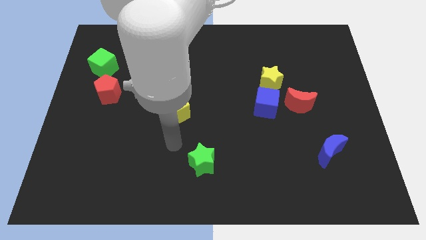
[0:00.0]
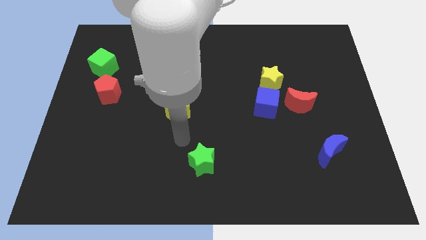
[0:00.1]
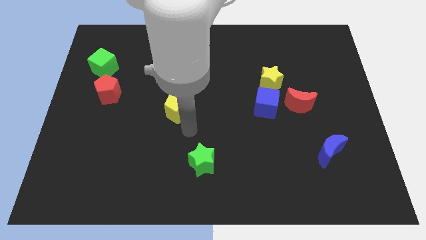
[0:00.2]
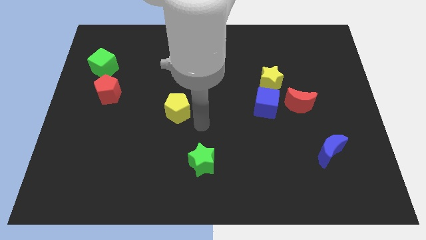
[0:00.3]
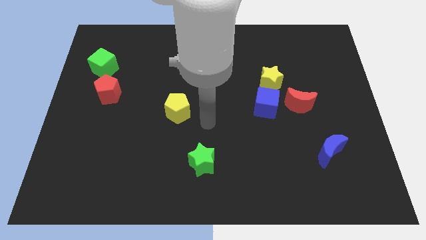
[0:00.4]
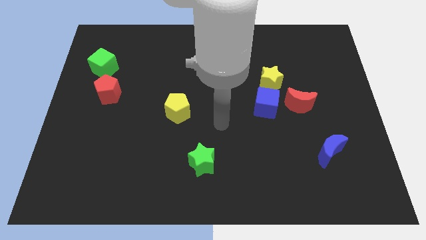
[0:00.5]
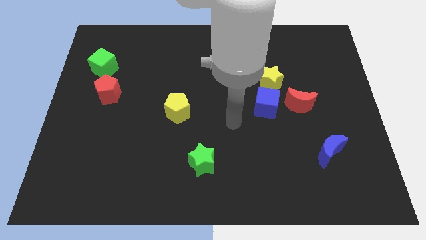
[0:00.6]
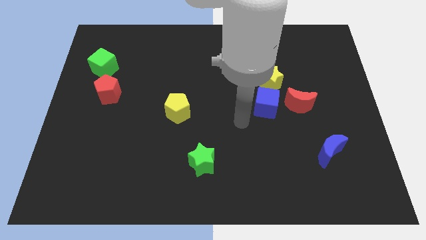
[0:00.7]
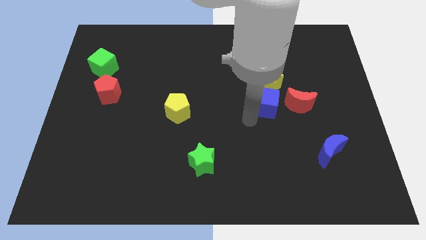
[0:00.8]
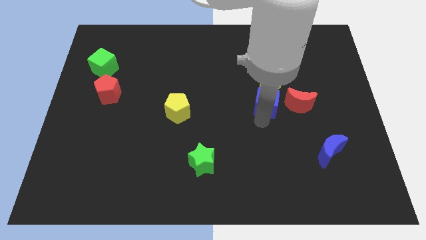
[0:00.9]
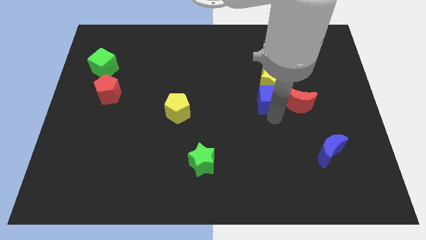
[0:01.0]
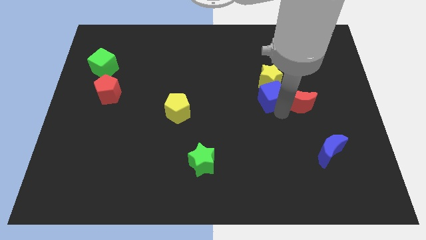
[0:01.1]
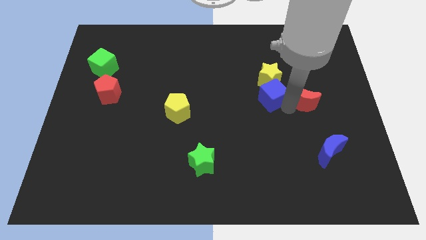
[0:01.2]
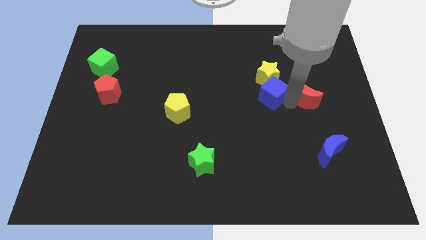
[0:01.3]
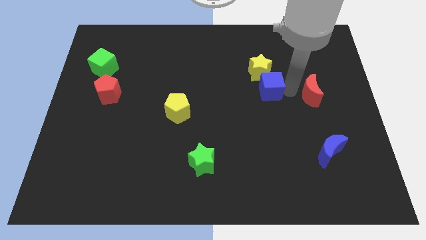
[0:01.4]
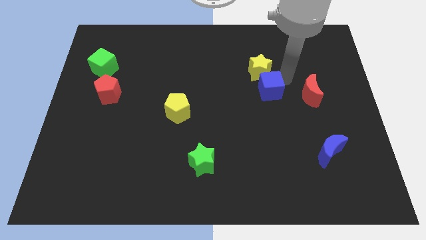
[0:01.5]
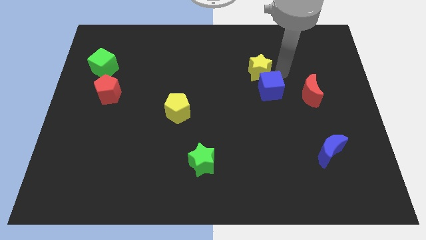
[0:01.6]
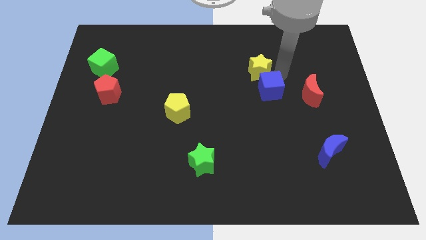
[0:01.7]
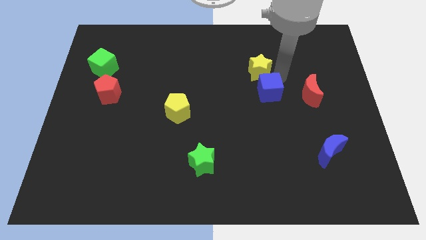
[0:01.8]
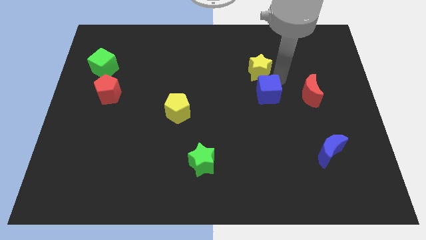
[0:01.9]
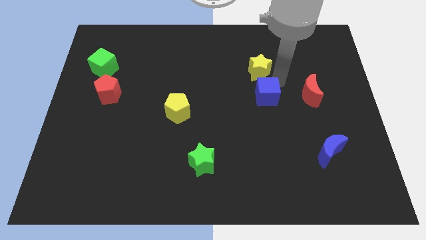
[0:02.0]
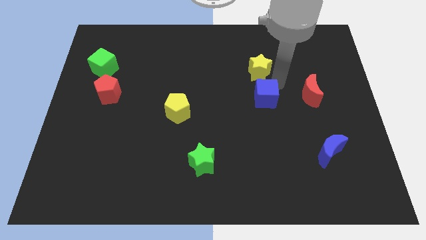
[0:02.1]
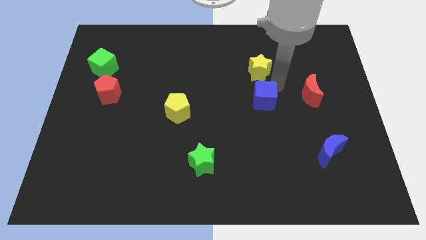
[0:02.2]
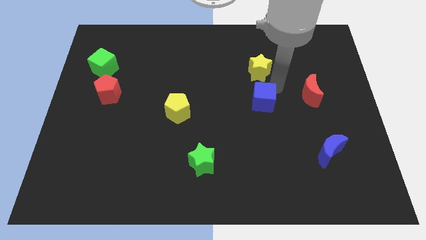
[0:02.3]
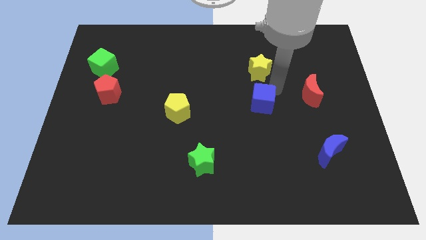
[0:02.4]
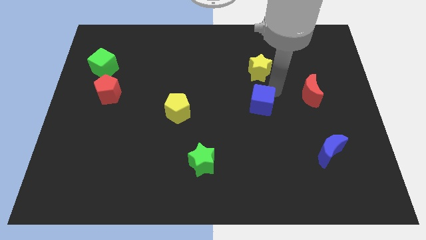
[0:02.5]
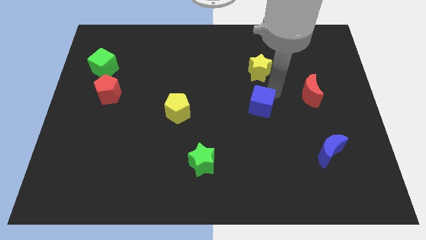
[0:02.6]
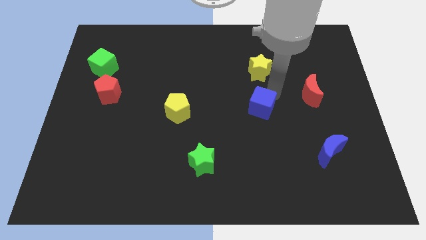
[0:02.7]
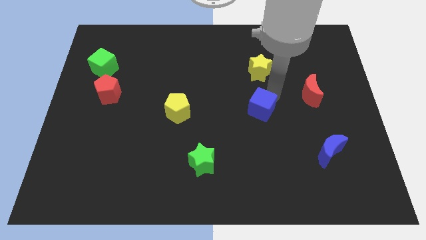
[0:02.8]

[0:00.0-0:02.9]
separate the blue cube from the yellow star and red moon

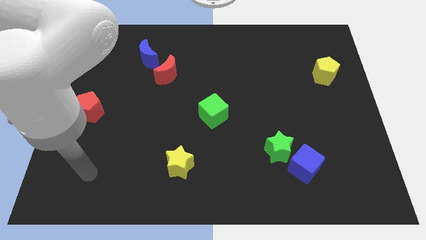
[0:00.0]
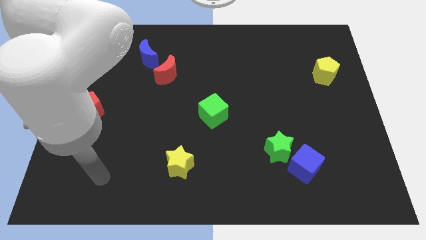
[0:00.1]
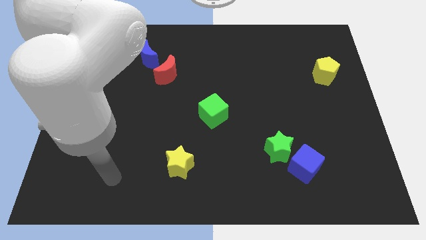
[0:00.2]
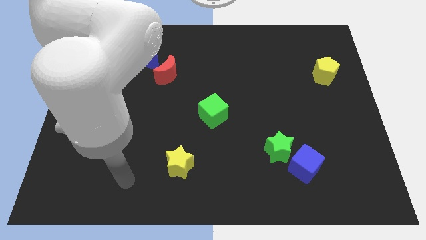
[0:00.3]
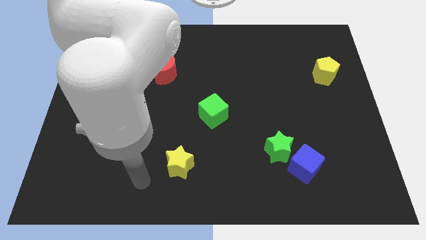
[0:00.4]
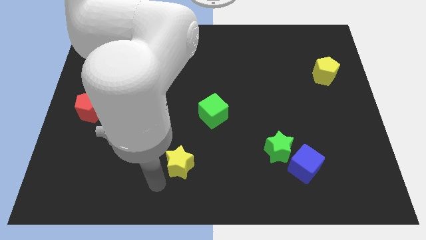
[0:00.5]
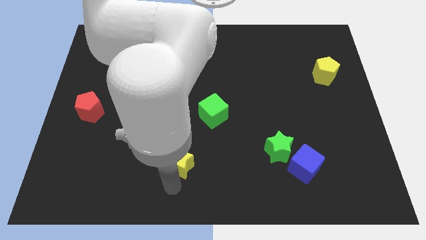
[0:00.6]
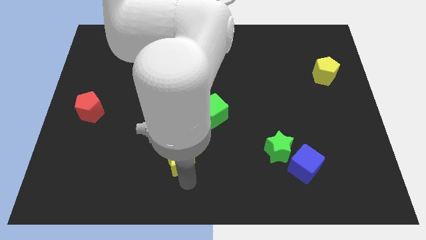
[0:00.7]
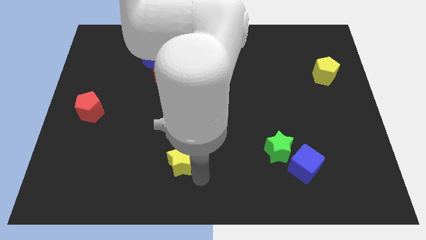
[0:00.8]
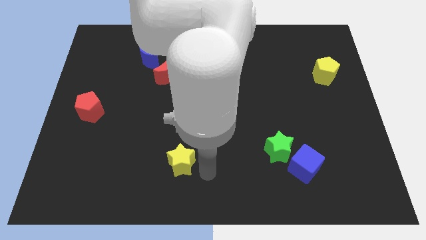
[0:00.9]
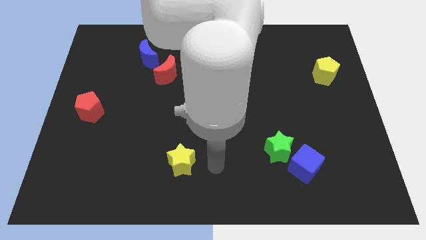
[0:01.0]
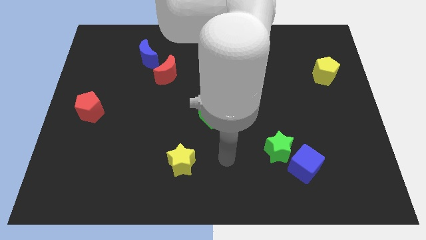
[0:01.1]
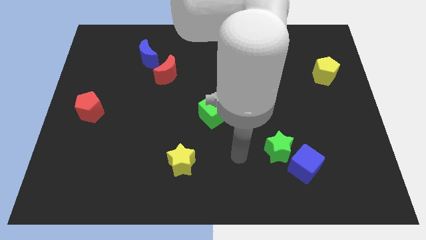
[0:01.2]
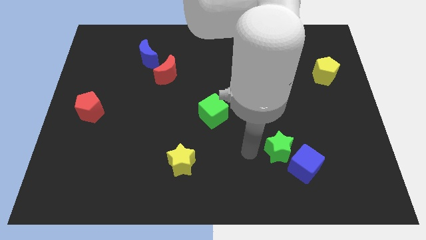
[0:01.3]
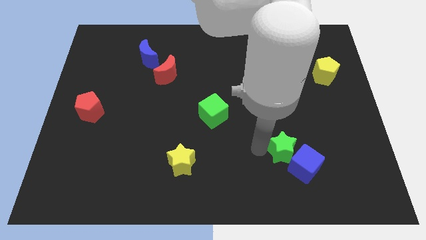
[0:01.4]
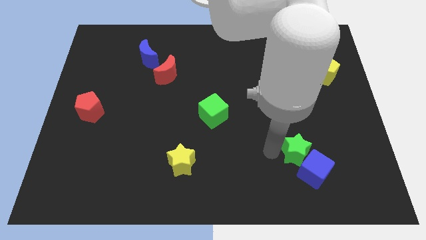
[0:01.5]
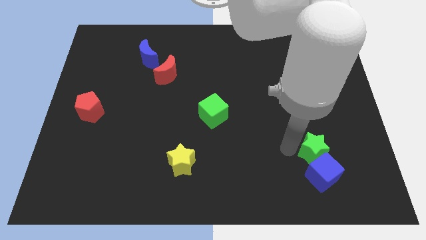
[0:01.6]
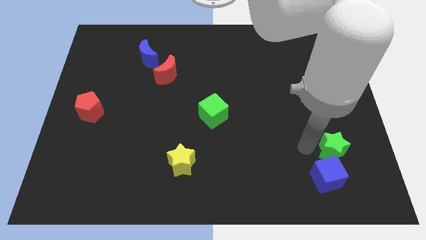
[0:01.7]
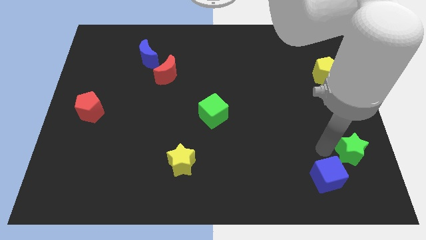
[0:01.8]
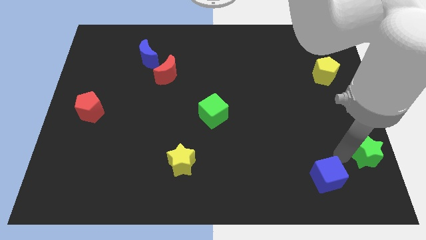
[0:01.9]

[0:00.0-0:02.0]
move the blue cube away from the green star

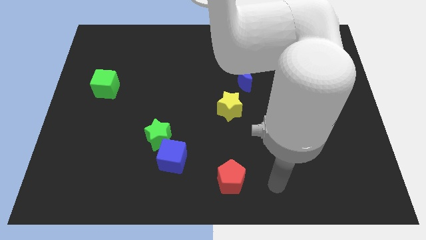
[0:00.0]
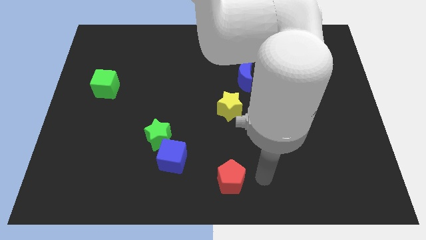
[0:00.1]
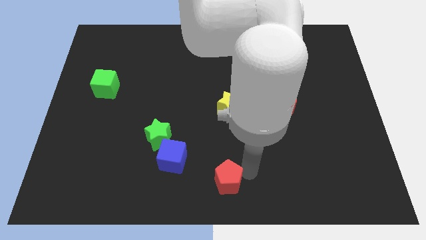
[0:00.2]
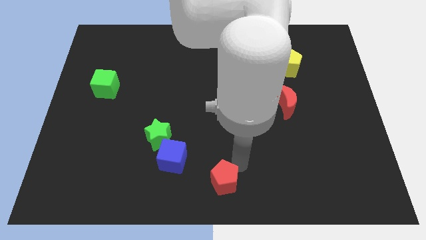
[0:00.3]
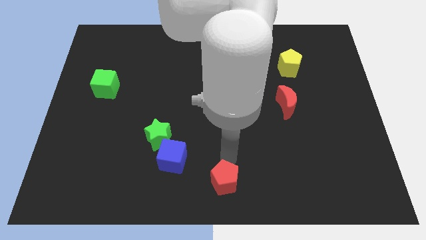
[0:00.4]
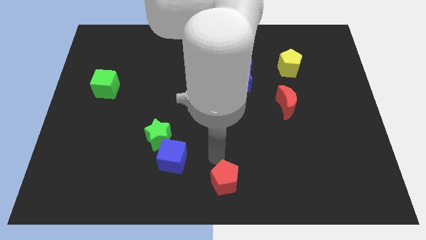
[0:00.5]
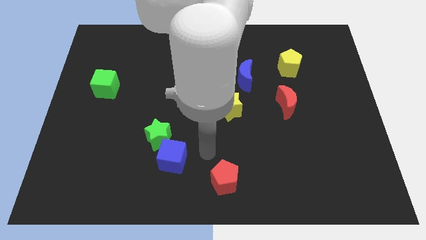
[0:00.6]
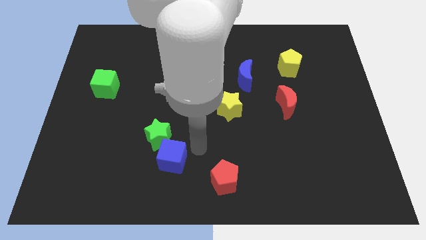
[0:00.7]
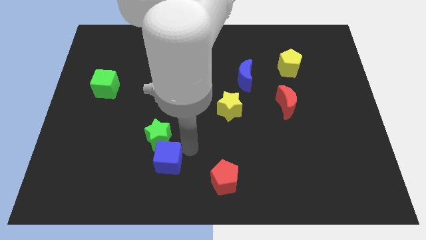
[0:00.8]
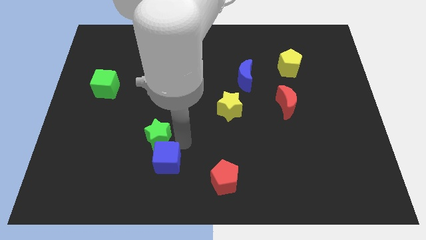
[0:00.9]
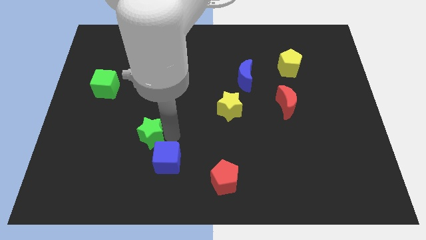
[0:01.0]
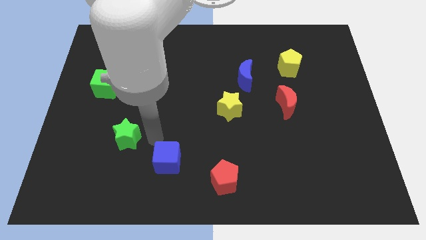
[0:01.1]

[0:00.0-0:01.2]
separate the blue cube from the green star

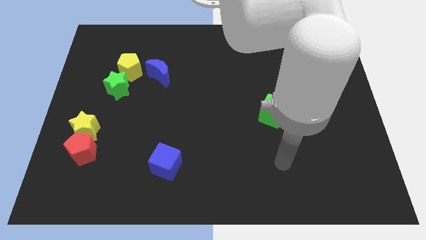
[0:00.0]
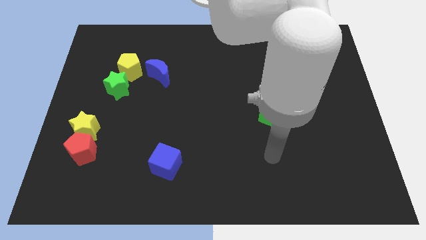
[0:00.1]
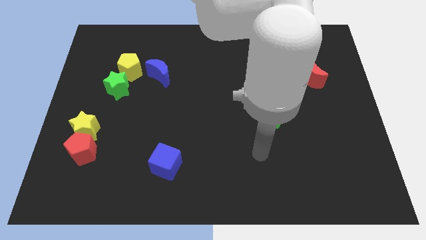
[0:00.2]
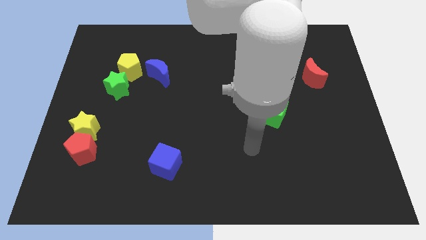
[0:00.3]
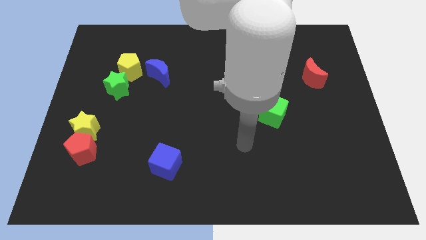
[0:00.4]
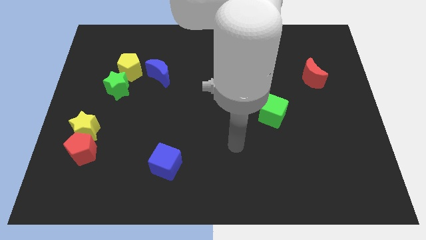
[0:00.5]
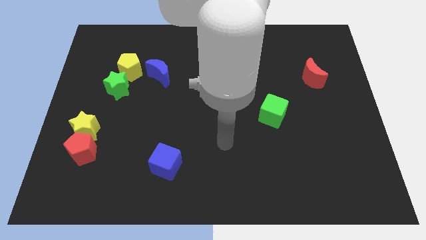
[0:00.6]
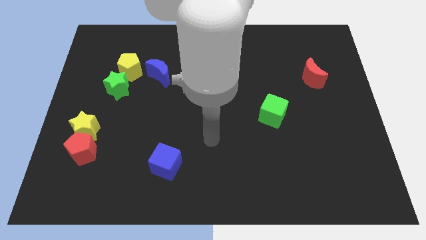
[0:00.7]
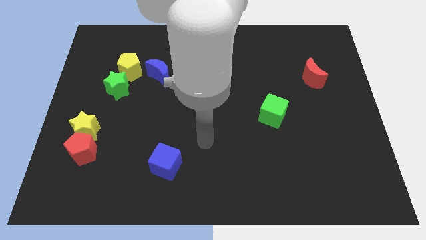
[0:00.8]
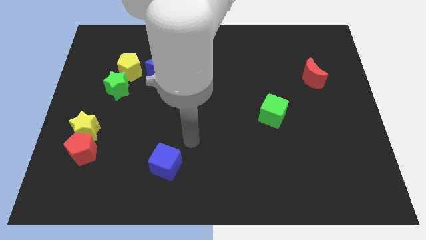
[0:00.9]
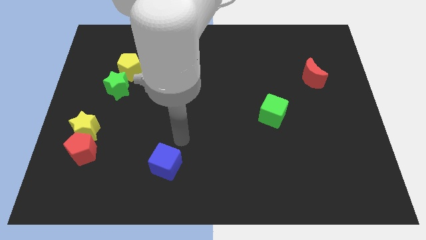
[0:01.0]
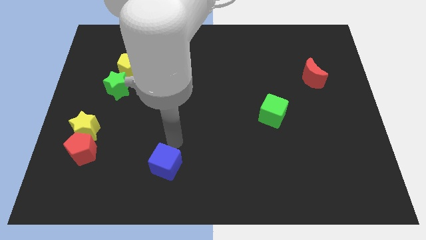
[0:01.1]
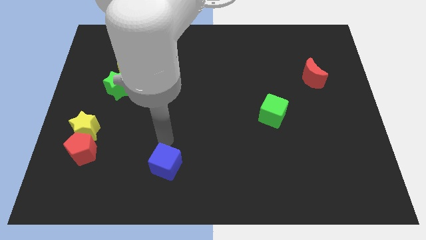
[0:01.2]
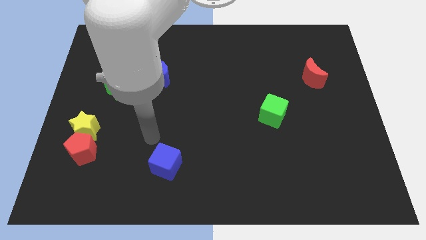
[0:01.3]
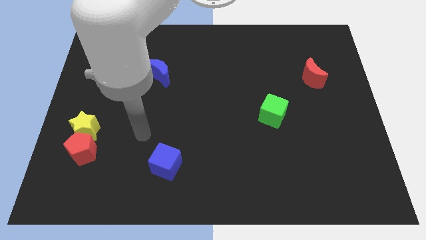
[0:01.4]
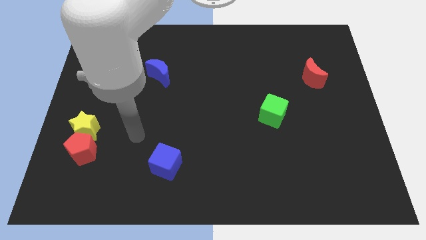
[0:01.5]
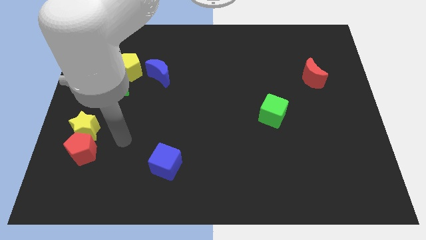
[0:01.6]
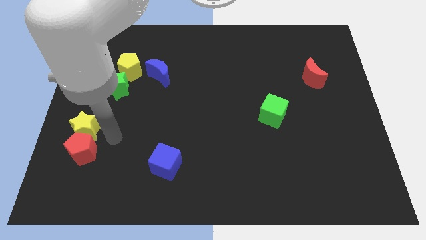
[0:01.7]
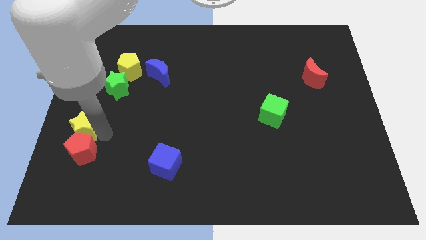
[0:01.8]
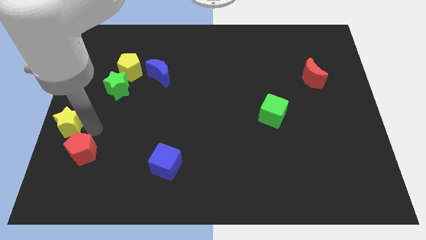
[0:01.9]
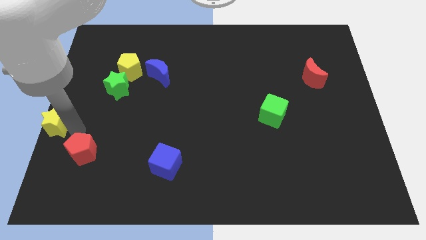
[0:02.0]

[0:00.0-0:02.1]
move the red pentagon away from the yellow star

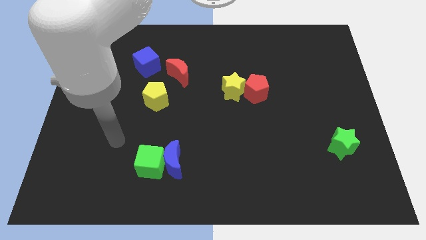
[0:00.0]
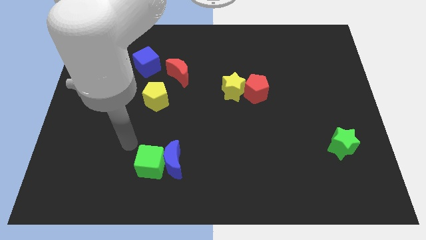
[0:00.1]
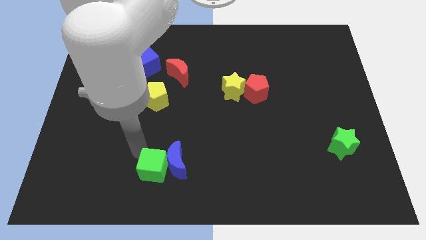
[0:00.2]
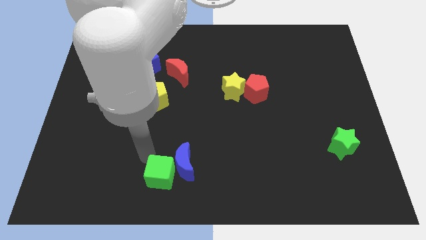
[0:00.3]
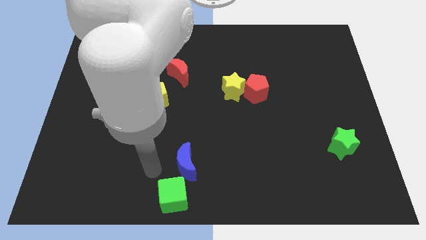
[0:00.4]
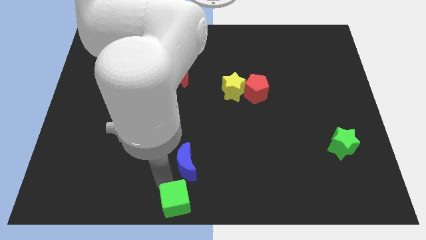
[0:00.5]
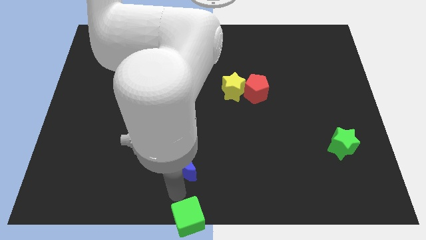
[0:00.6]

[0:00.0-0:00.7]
separate the blue moon from the green cube

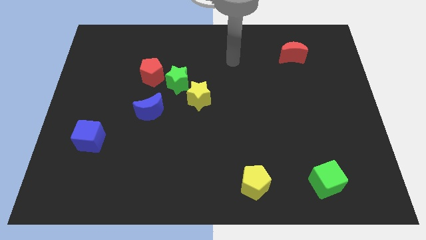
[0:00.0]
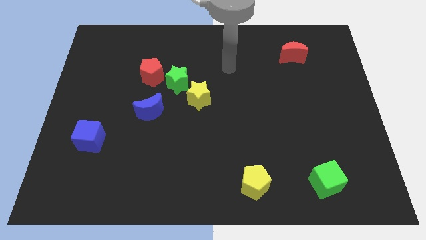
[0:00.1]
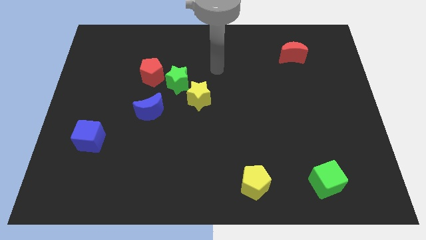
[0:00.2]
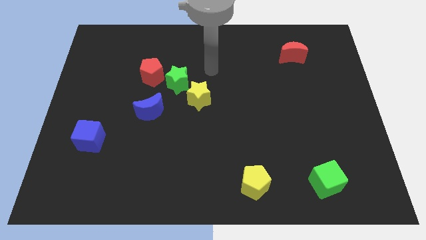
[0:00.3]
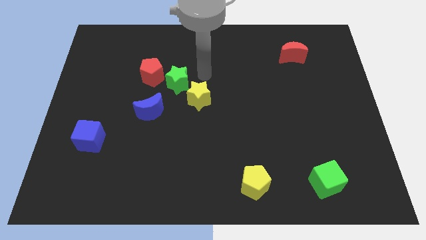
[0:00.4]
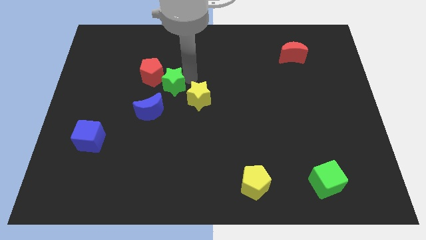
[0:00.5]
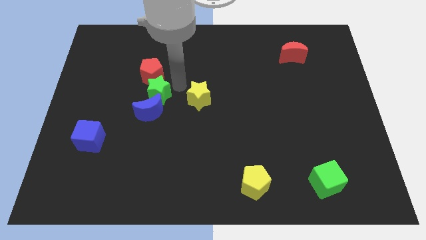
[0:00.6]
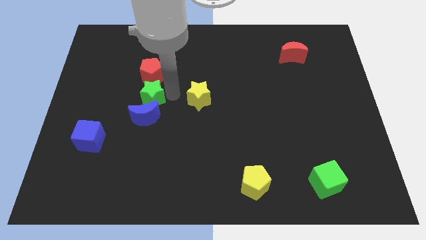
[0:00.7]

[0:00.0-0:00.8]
pull the yellow star apart from the green star
